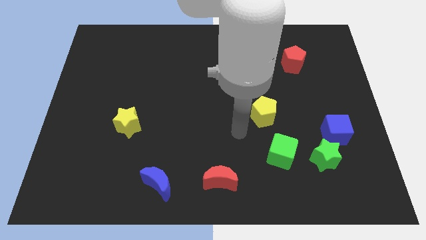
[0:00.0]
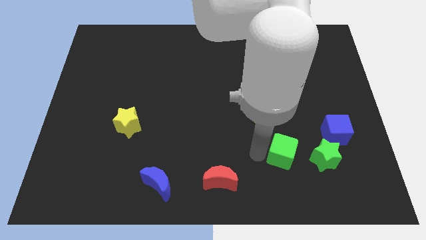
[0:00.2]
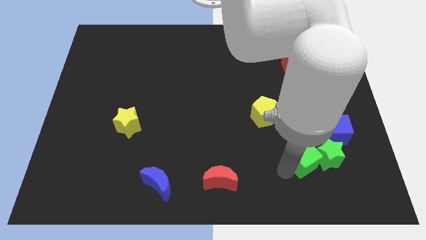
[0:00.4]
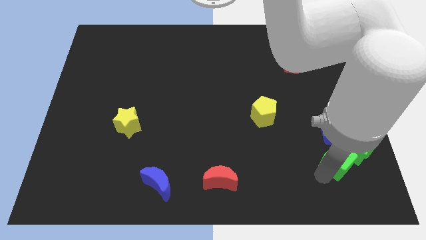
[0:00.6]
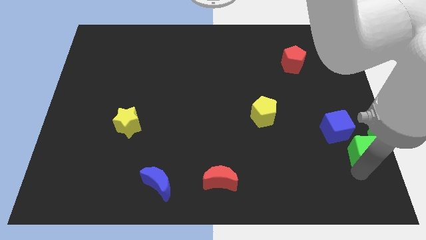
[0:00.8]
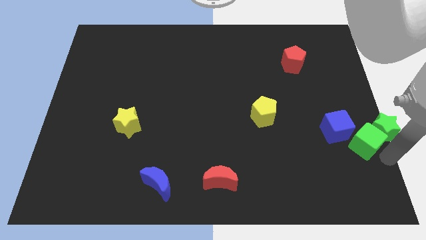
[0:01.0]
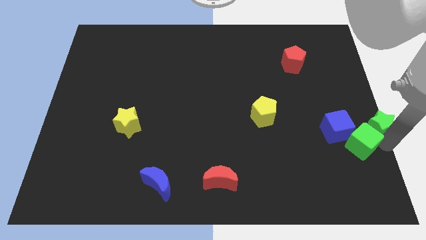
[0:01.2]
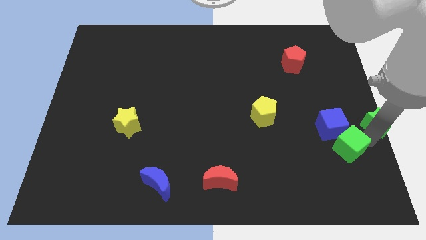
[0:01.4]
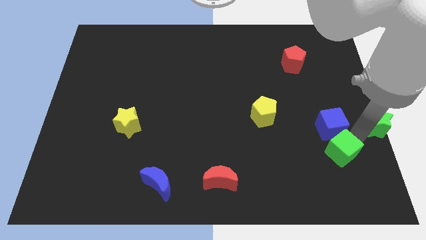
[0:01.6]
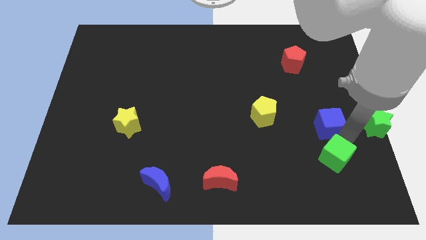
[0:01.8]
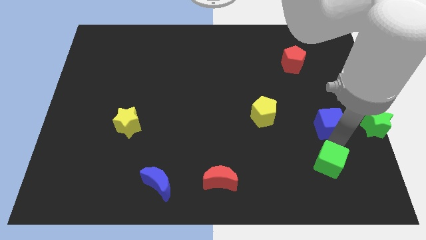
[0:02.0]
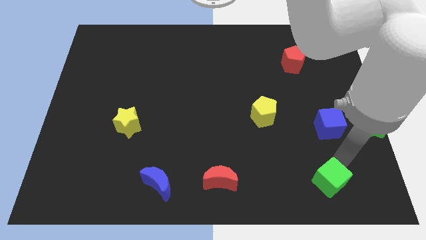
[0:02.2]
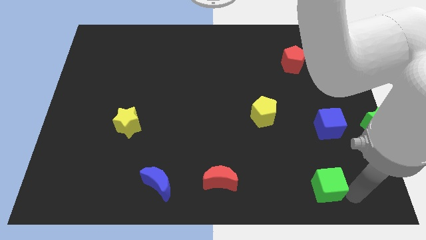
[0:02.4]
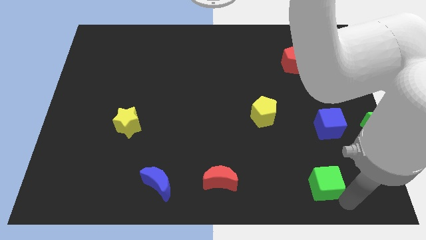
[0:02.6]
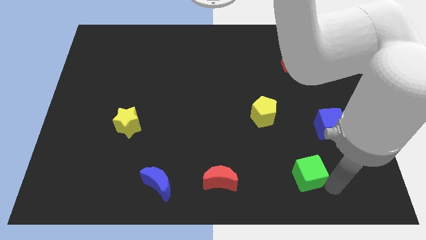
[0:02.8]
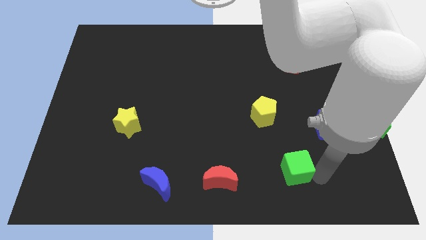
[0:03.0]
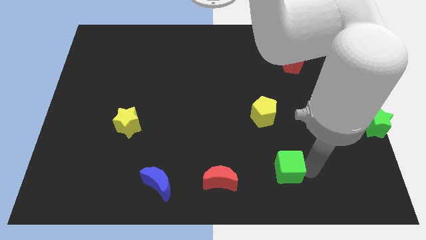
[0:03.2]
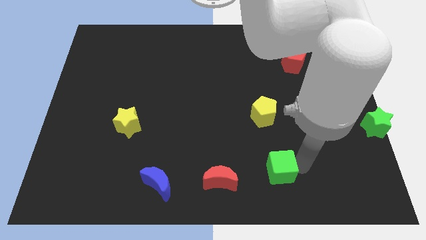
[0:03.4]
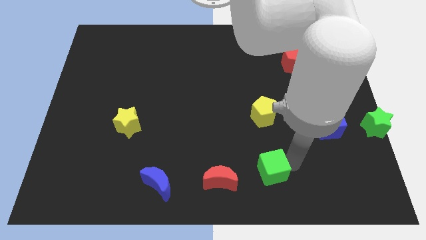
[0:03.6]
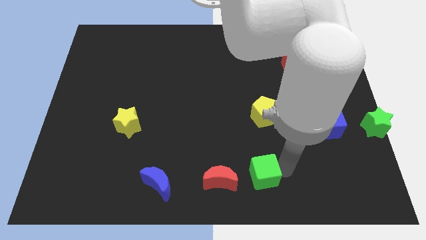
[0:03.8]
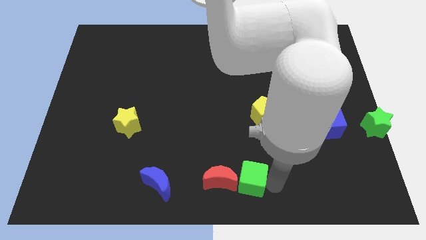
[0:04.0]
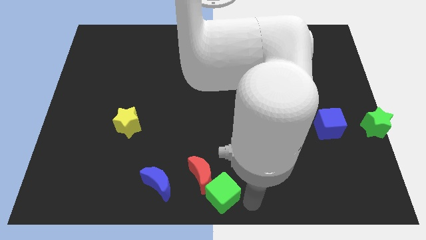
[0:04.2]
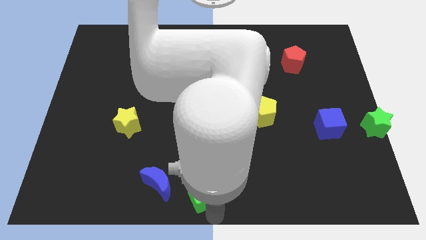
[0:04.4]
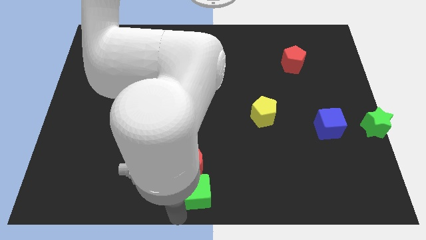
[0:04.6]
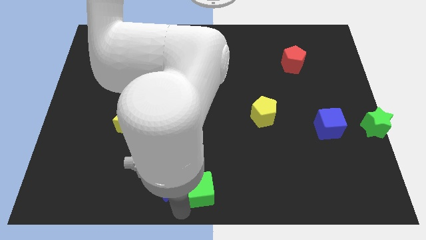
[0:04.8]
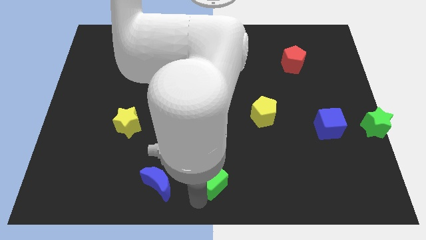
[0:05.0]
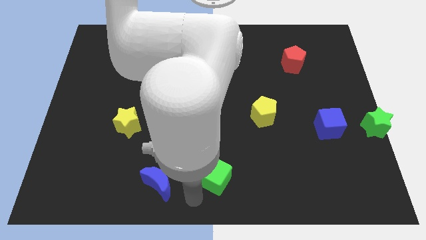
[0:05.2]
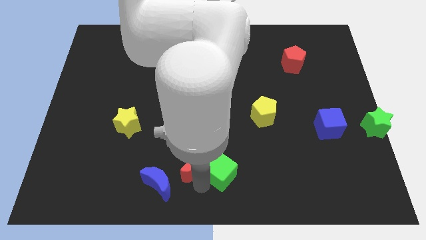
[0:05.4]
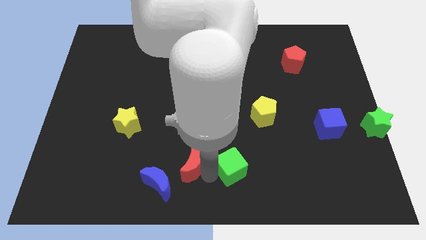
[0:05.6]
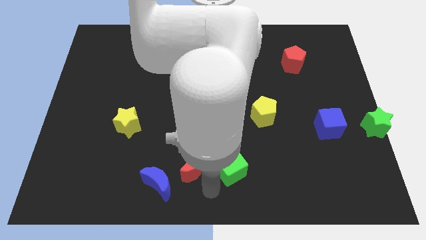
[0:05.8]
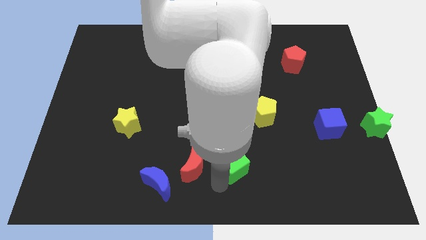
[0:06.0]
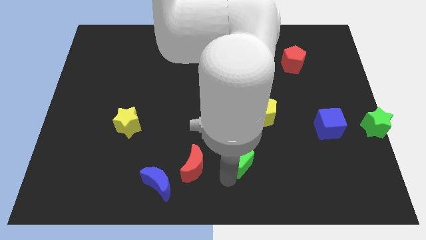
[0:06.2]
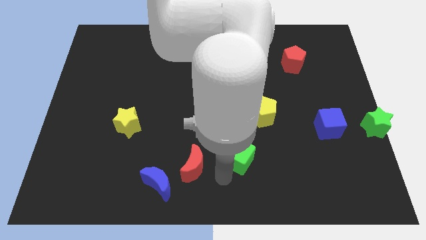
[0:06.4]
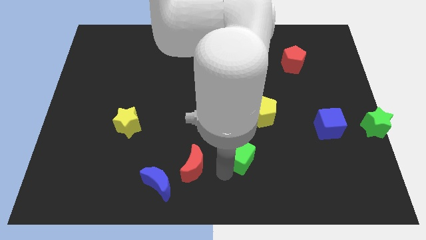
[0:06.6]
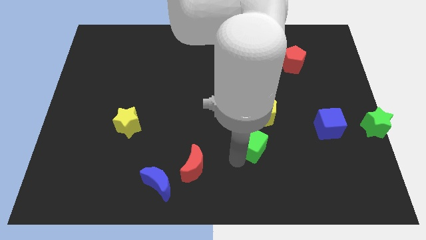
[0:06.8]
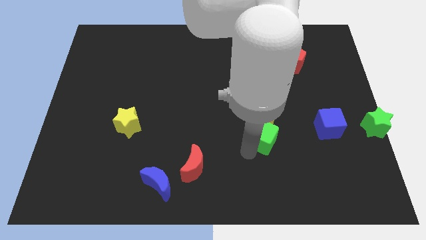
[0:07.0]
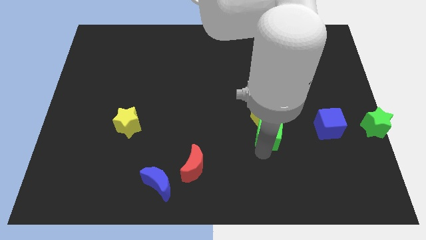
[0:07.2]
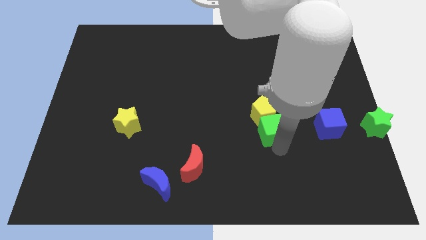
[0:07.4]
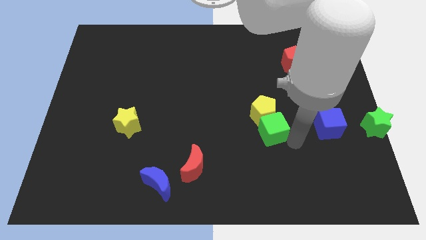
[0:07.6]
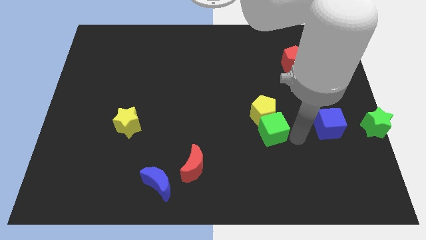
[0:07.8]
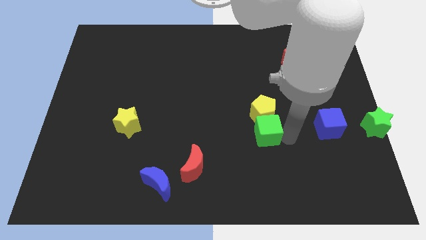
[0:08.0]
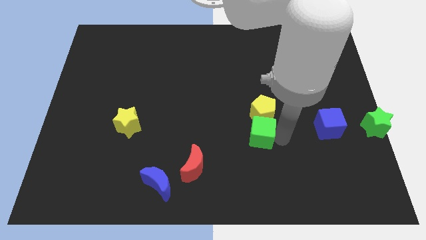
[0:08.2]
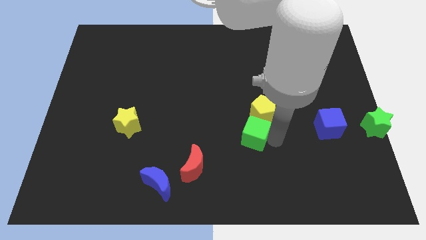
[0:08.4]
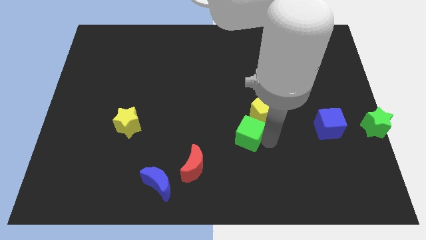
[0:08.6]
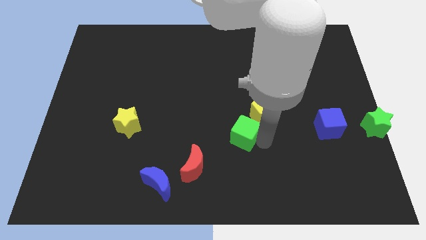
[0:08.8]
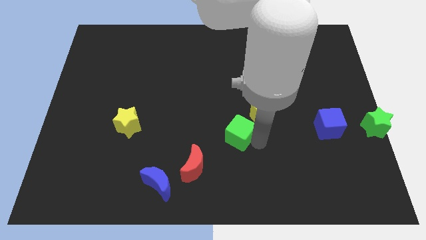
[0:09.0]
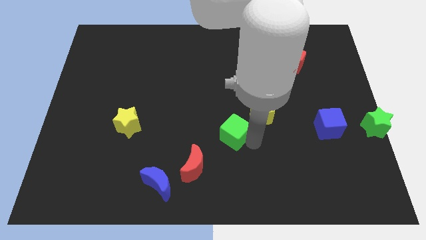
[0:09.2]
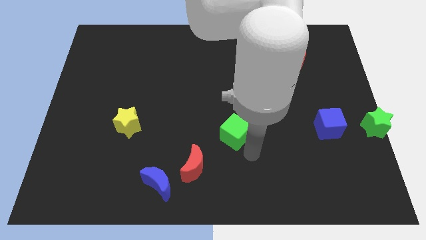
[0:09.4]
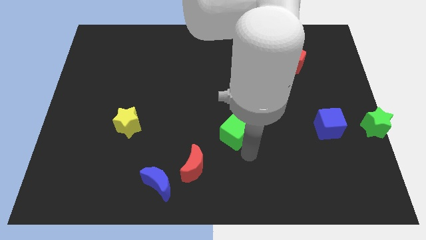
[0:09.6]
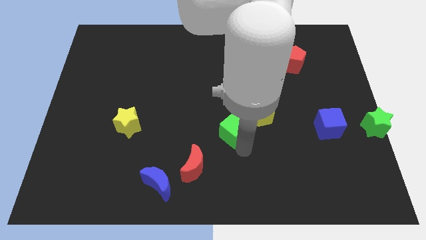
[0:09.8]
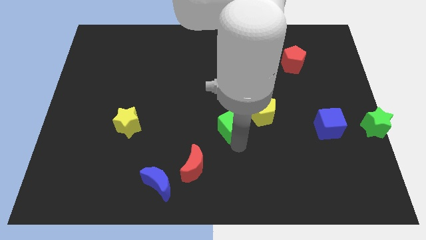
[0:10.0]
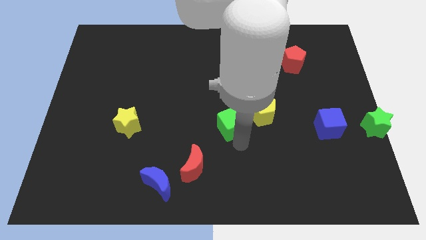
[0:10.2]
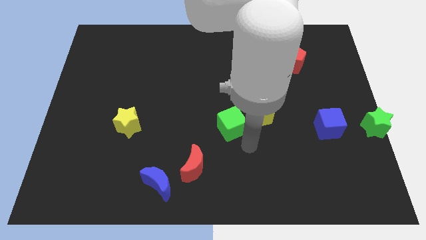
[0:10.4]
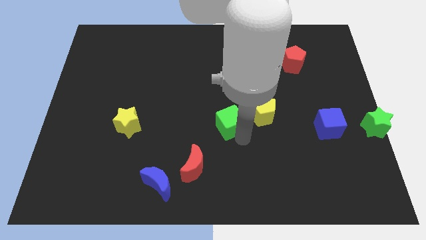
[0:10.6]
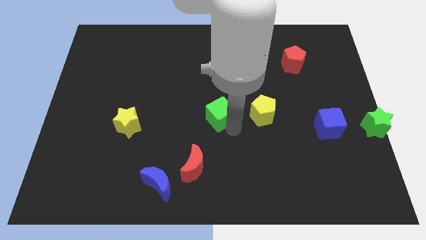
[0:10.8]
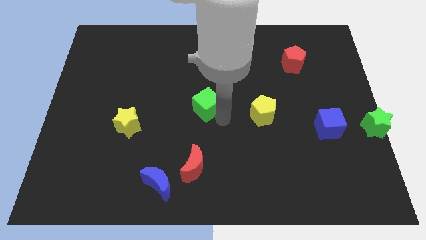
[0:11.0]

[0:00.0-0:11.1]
slide the green cube up and left diagonally

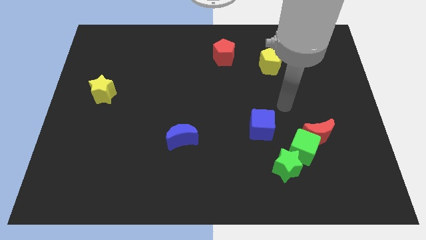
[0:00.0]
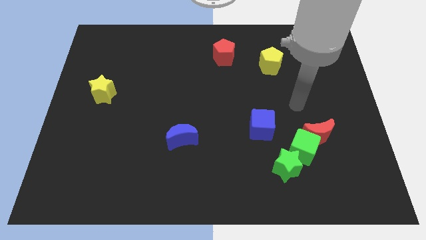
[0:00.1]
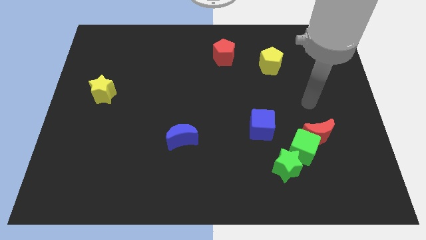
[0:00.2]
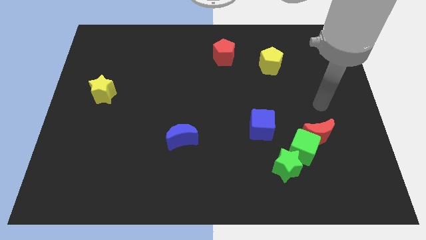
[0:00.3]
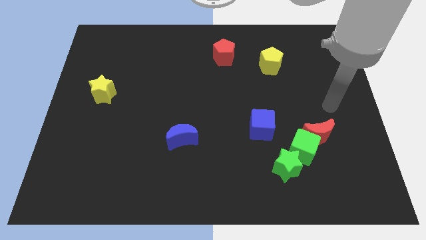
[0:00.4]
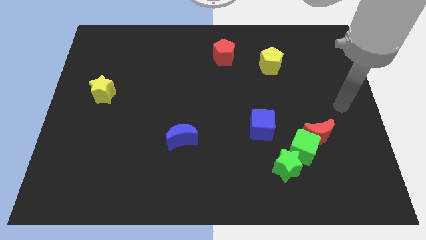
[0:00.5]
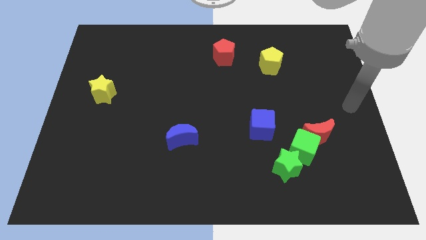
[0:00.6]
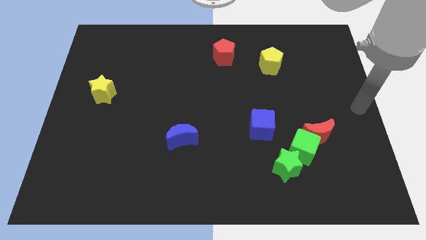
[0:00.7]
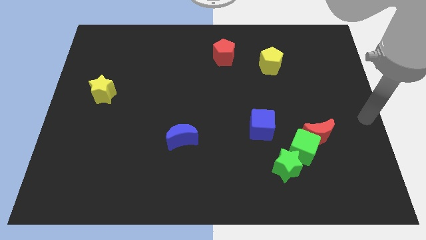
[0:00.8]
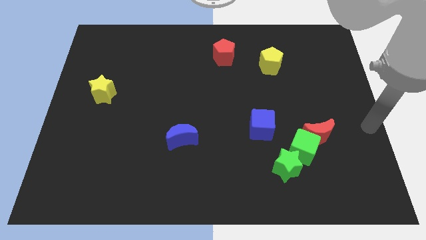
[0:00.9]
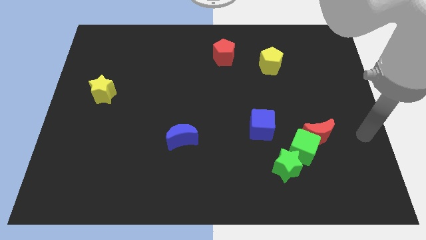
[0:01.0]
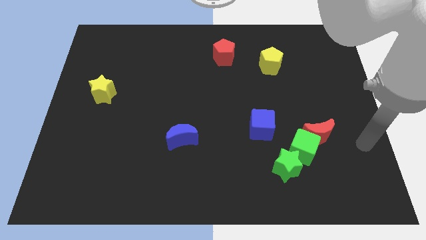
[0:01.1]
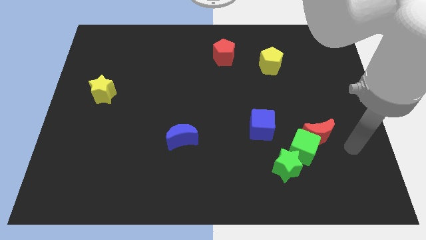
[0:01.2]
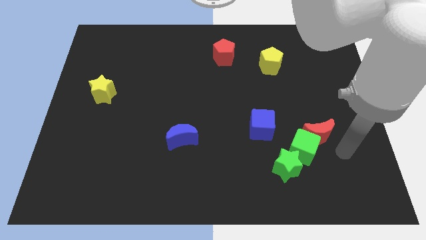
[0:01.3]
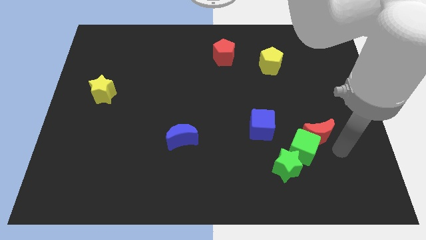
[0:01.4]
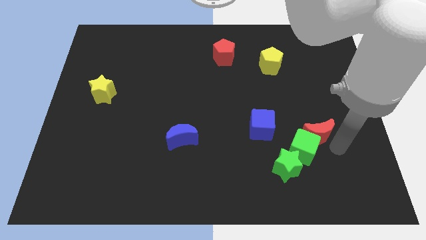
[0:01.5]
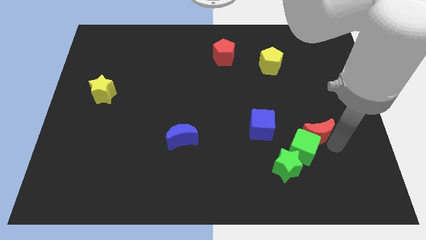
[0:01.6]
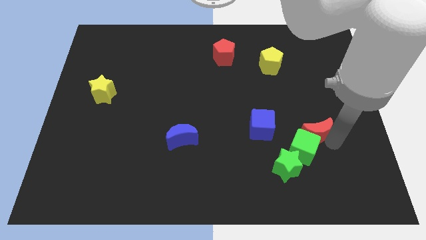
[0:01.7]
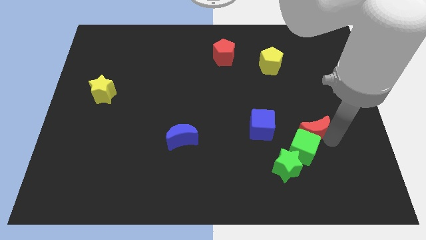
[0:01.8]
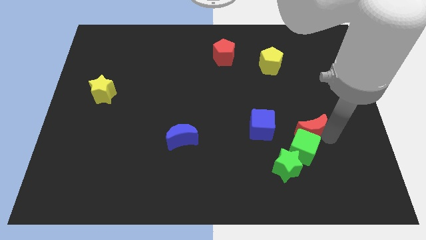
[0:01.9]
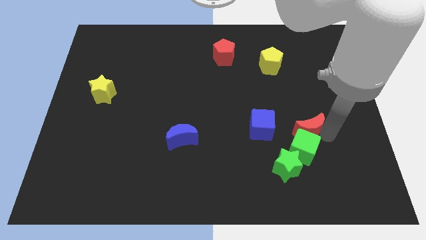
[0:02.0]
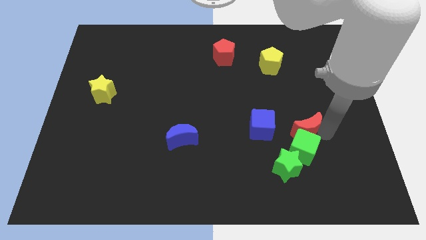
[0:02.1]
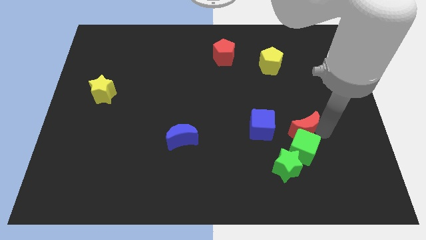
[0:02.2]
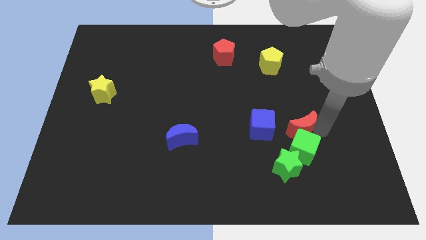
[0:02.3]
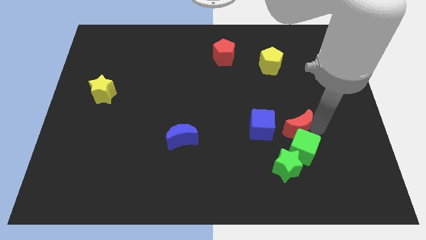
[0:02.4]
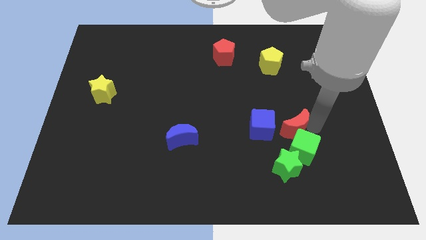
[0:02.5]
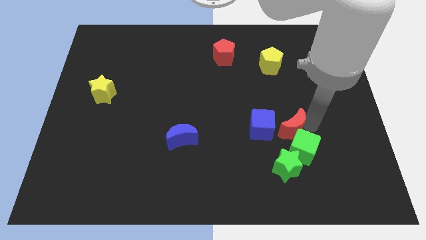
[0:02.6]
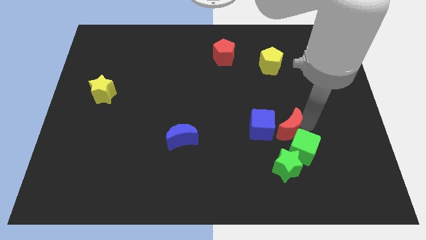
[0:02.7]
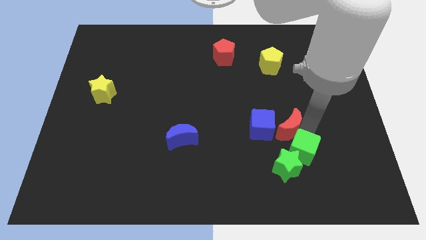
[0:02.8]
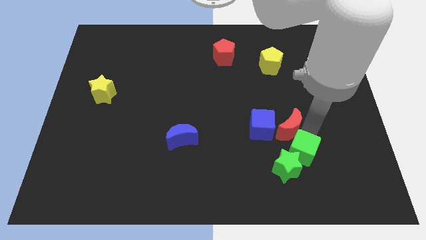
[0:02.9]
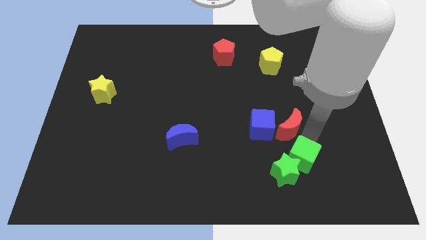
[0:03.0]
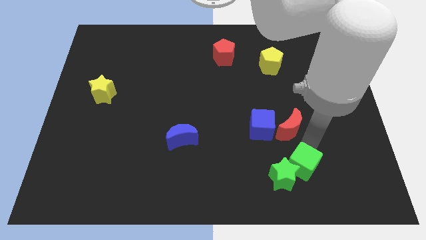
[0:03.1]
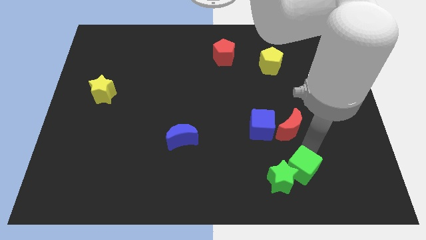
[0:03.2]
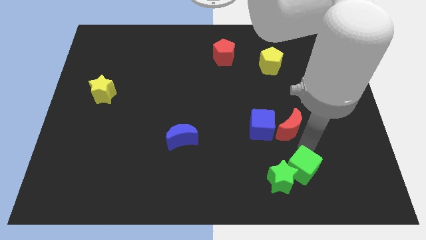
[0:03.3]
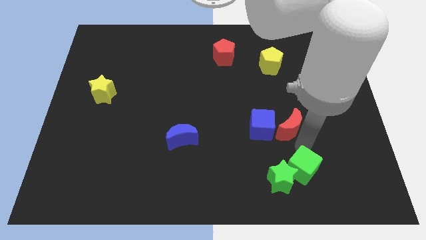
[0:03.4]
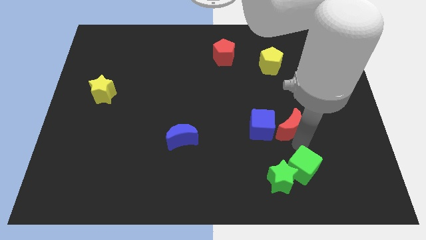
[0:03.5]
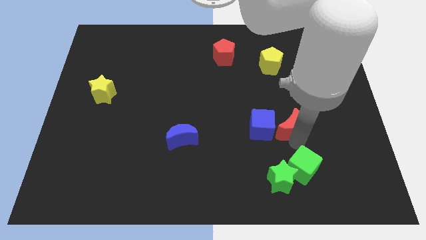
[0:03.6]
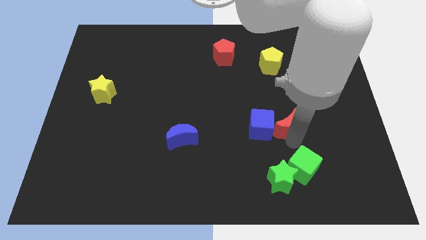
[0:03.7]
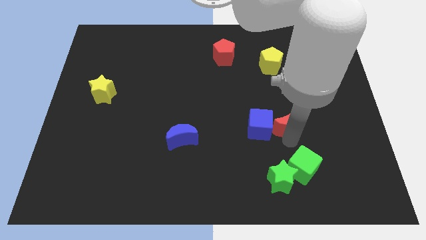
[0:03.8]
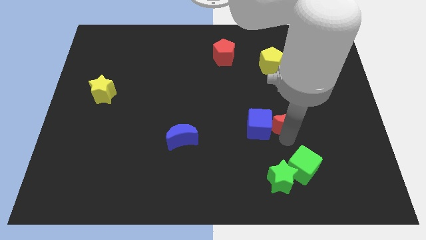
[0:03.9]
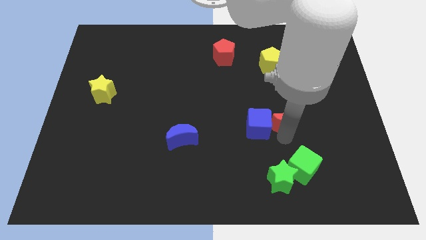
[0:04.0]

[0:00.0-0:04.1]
slightly move the red moon up and to the left diagonally
